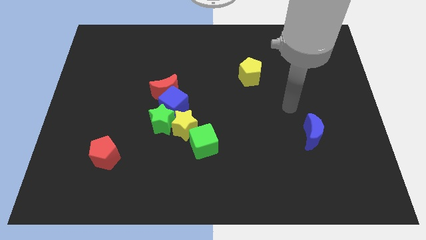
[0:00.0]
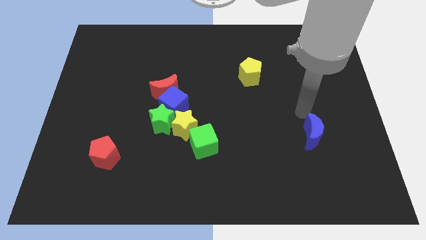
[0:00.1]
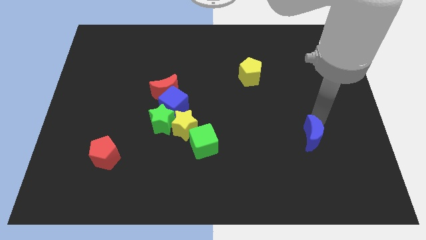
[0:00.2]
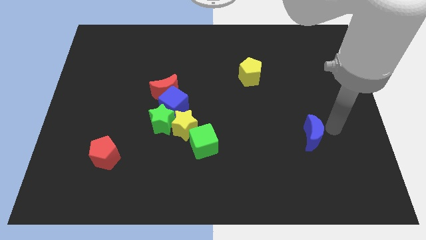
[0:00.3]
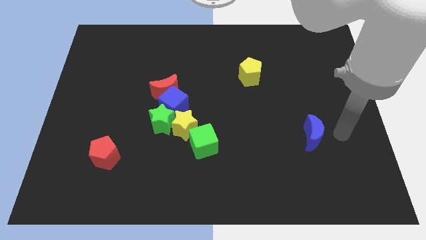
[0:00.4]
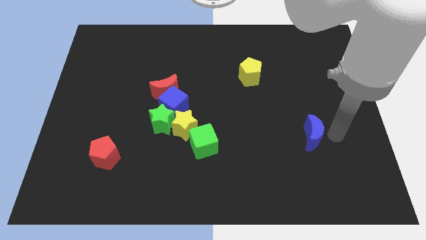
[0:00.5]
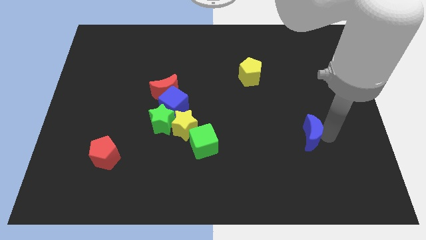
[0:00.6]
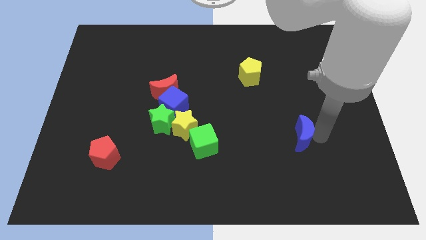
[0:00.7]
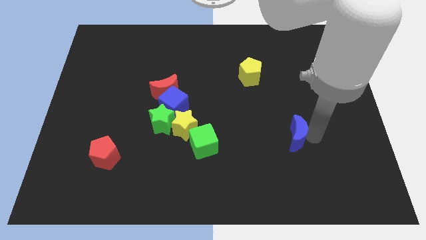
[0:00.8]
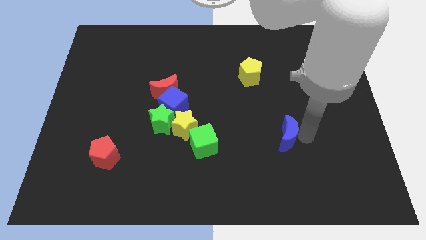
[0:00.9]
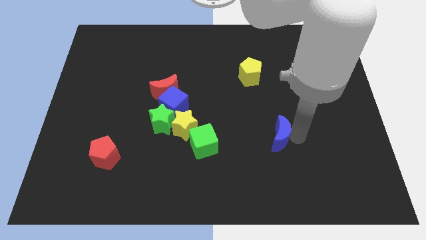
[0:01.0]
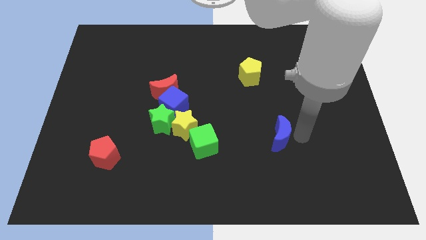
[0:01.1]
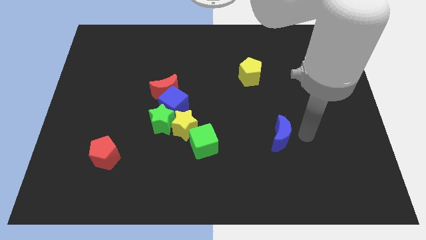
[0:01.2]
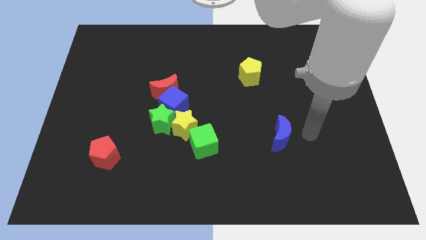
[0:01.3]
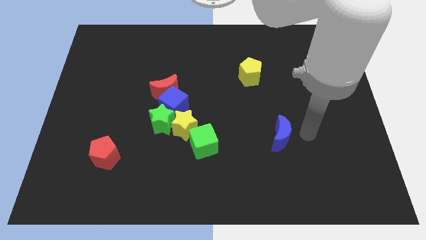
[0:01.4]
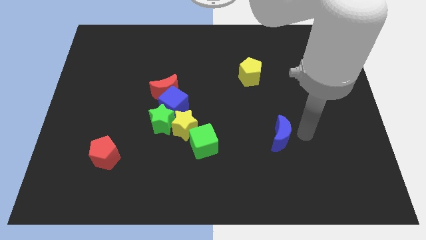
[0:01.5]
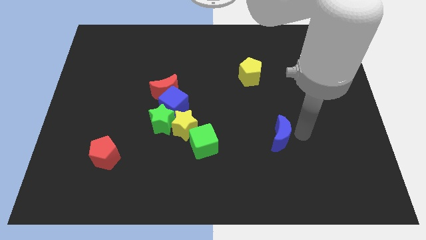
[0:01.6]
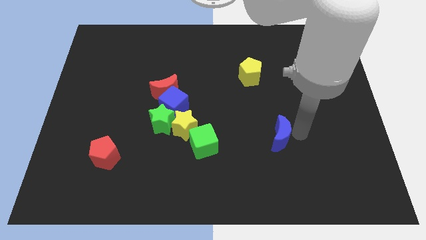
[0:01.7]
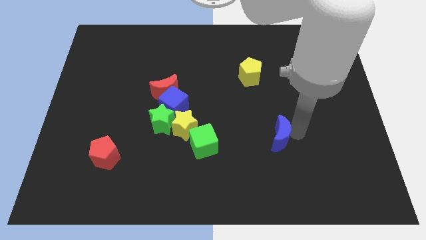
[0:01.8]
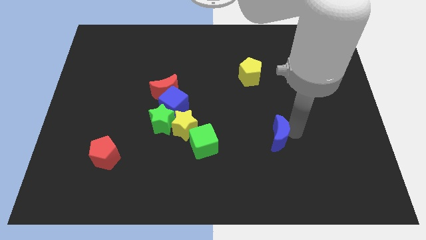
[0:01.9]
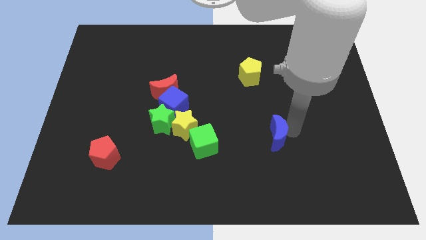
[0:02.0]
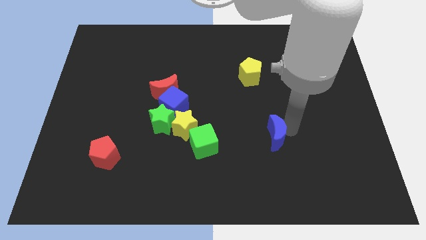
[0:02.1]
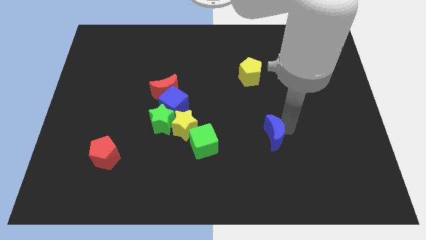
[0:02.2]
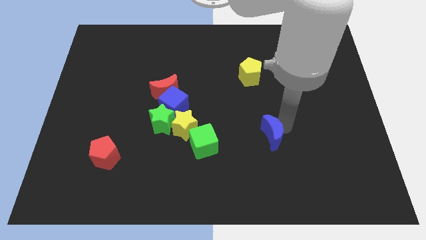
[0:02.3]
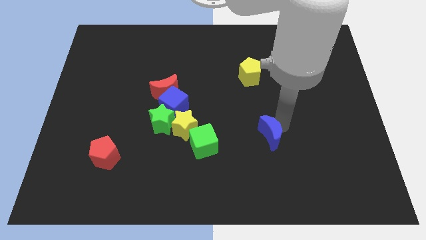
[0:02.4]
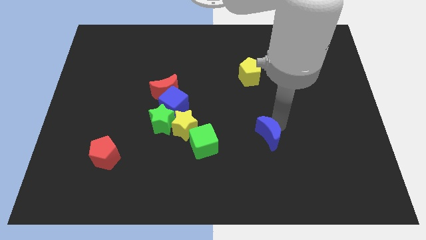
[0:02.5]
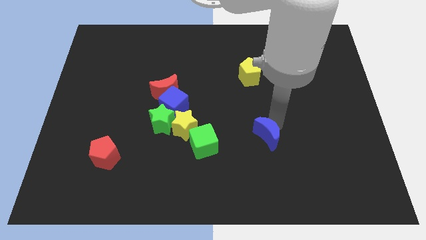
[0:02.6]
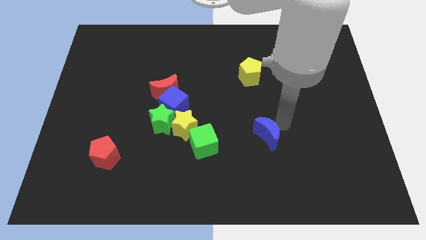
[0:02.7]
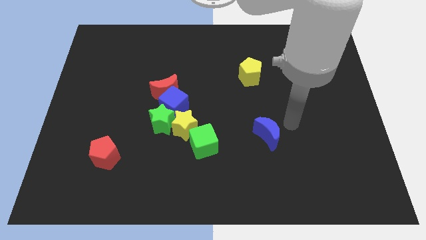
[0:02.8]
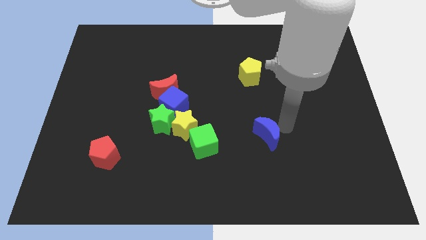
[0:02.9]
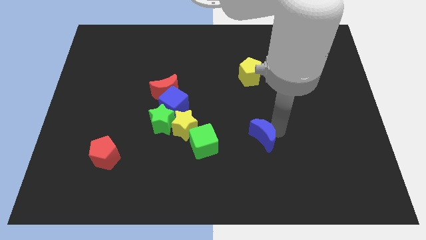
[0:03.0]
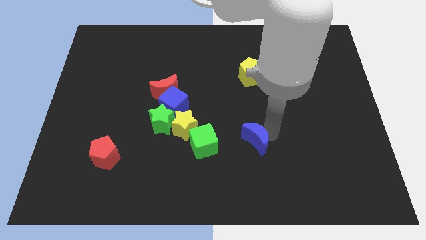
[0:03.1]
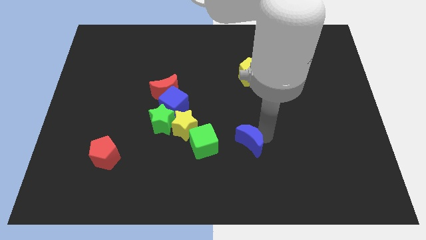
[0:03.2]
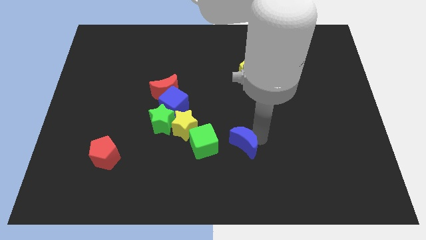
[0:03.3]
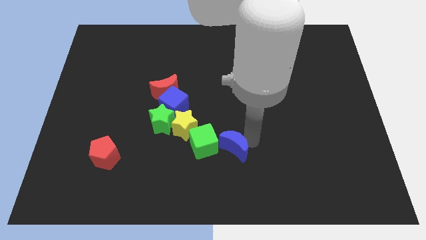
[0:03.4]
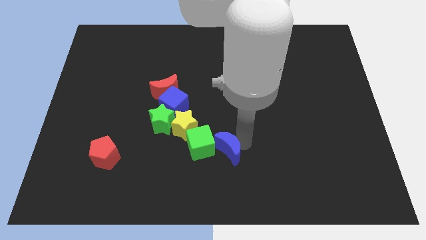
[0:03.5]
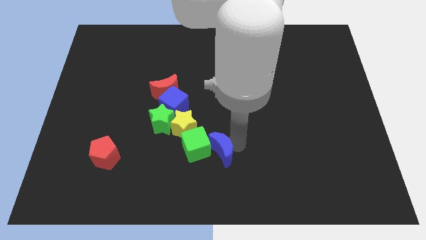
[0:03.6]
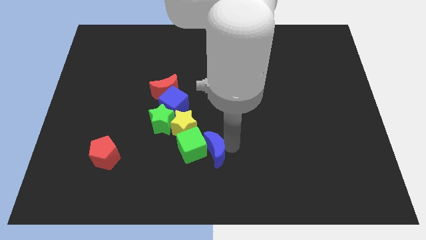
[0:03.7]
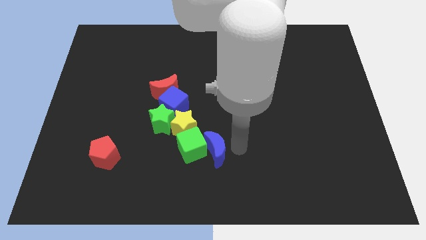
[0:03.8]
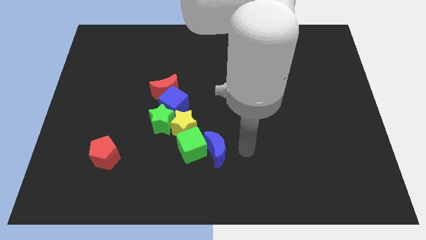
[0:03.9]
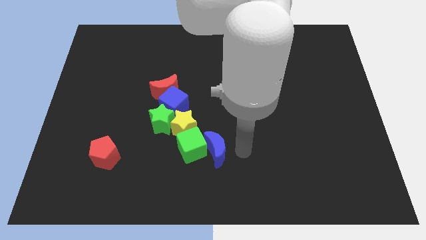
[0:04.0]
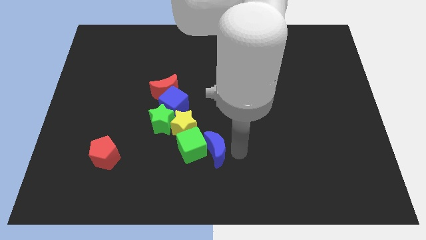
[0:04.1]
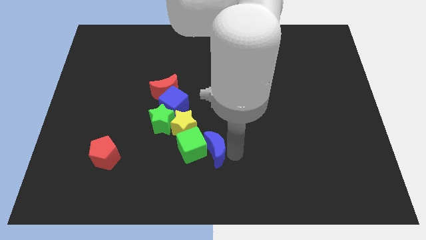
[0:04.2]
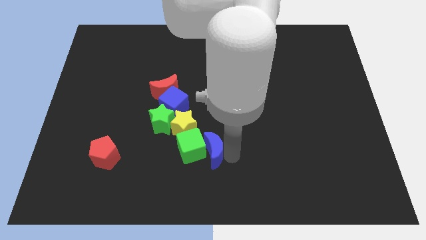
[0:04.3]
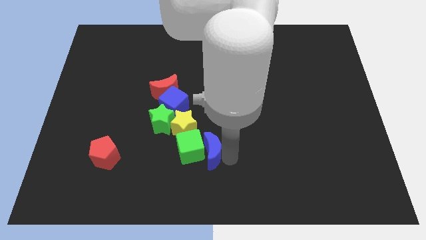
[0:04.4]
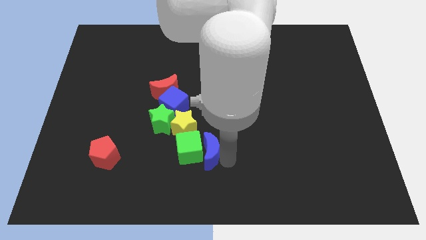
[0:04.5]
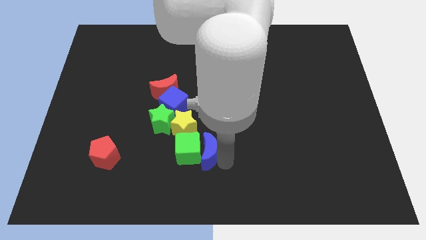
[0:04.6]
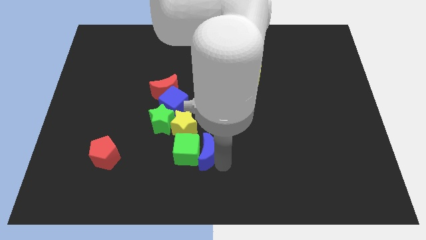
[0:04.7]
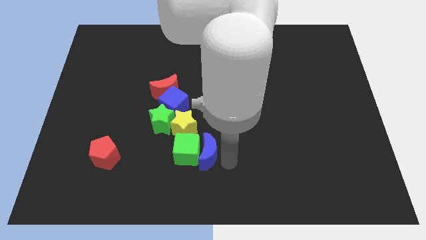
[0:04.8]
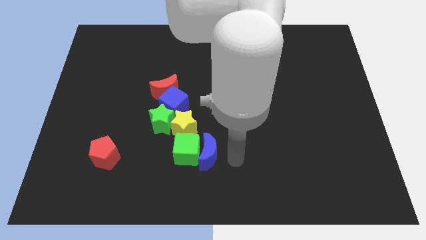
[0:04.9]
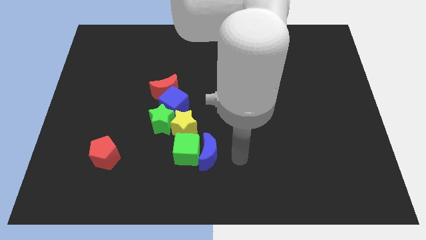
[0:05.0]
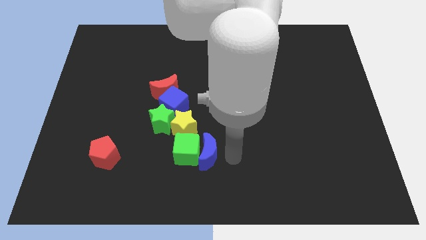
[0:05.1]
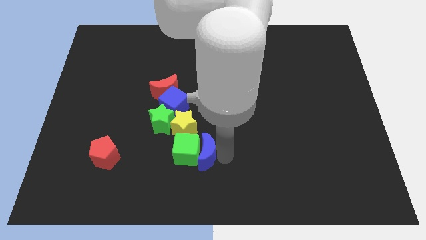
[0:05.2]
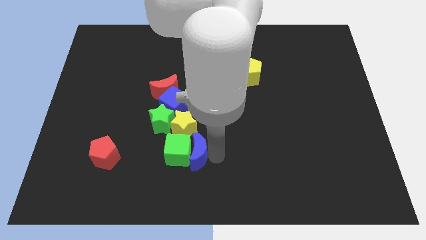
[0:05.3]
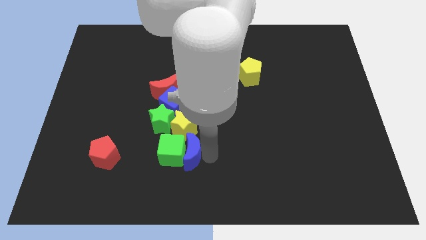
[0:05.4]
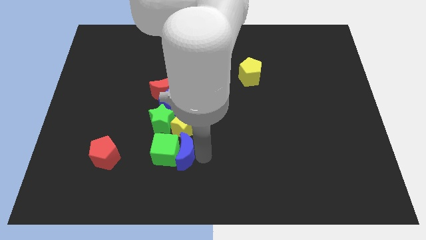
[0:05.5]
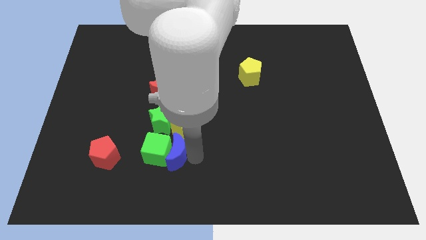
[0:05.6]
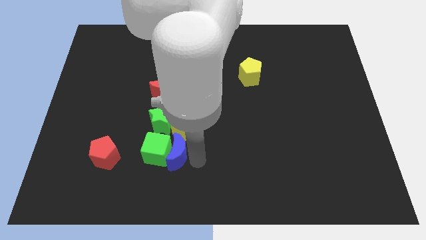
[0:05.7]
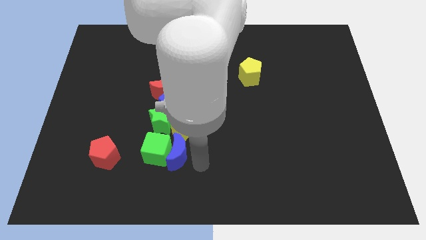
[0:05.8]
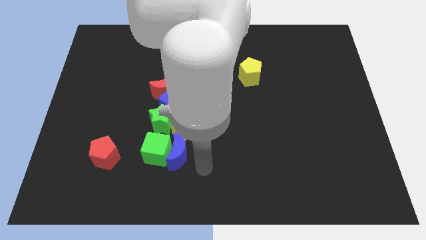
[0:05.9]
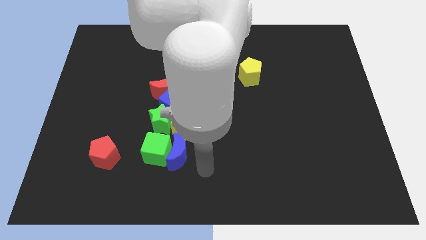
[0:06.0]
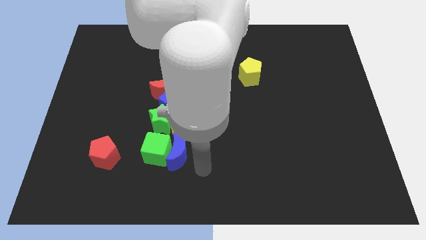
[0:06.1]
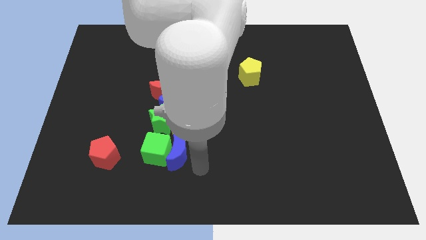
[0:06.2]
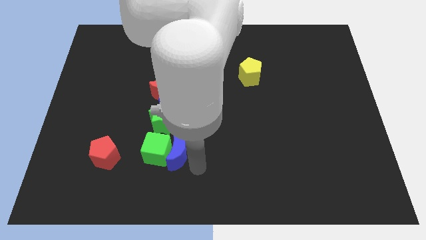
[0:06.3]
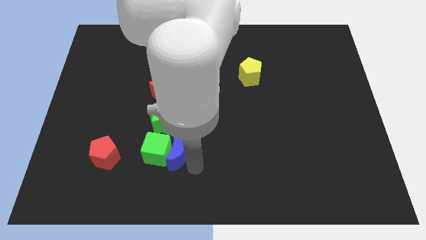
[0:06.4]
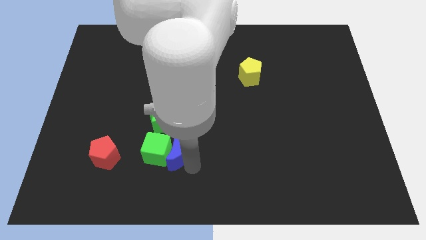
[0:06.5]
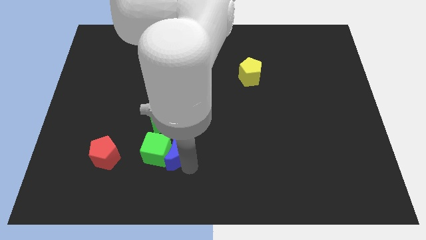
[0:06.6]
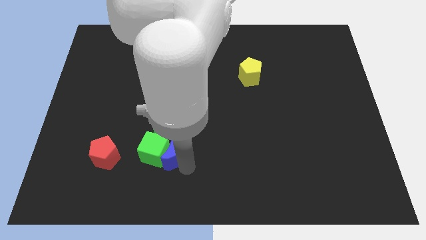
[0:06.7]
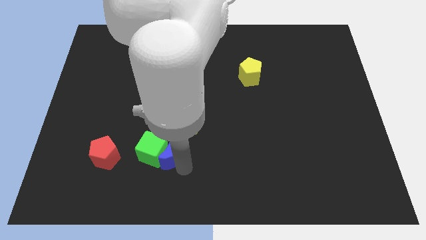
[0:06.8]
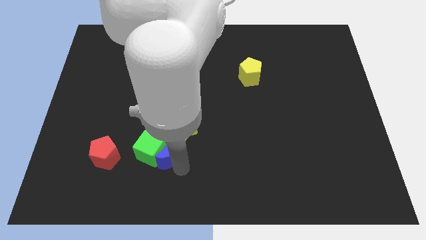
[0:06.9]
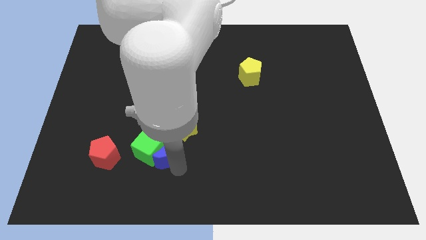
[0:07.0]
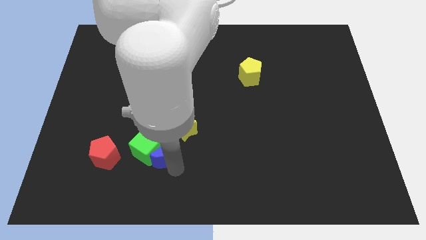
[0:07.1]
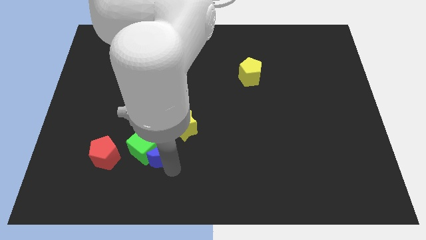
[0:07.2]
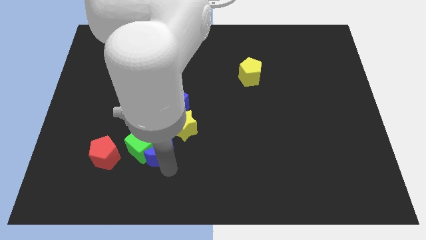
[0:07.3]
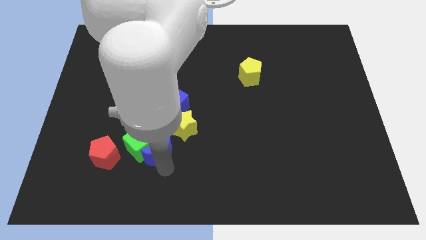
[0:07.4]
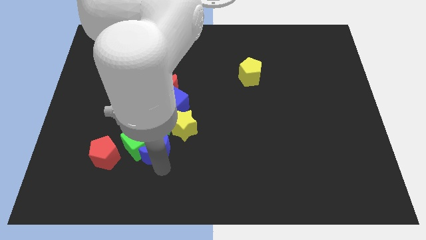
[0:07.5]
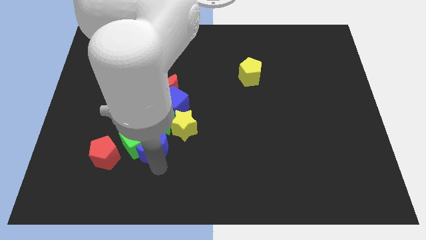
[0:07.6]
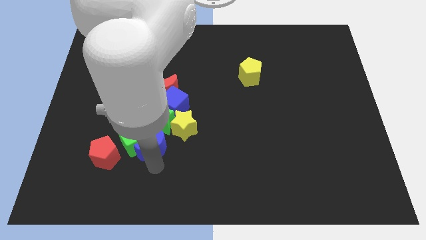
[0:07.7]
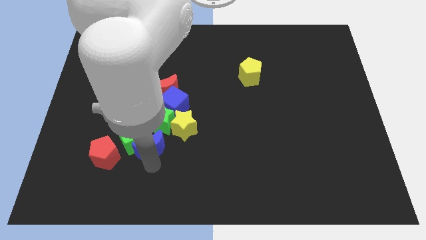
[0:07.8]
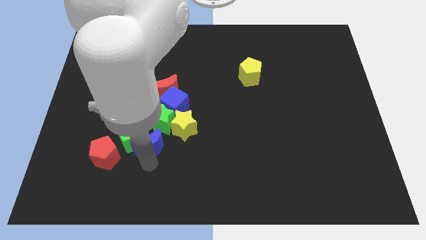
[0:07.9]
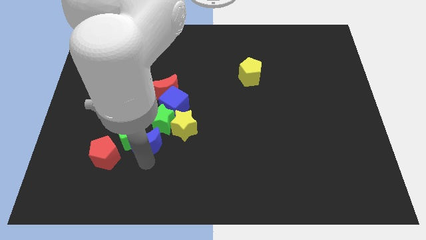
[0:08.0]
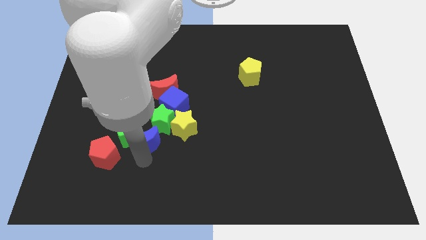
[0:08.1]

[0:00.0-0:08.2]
put the blue moon to the bottom left of the blue cube
